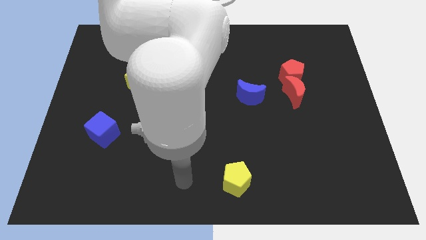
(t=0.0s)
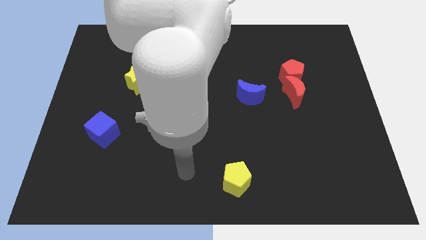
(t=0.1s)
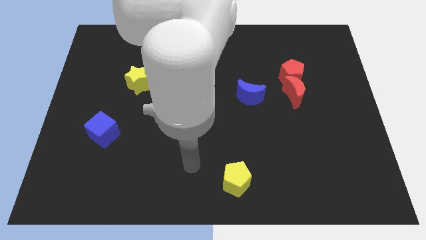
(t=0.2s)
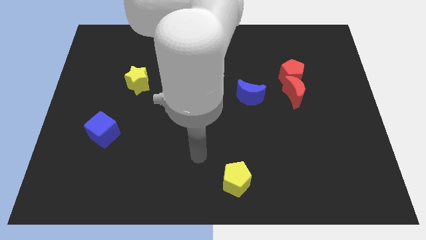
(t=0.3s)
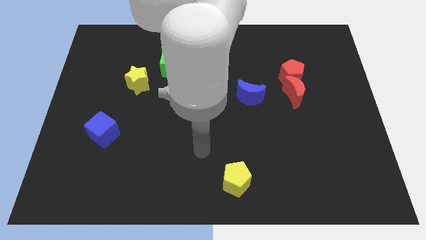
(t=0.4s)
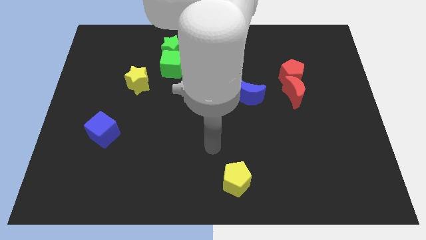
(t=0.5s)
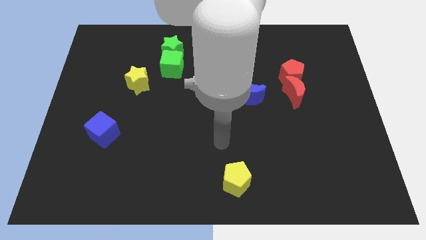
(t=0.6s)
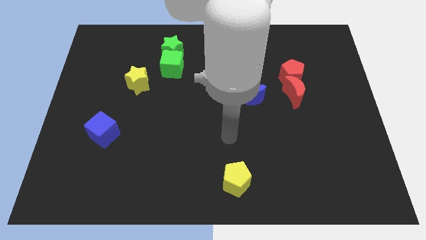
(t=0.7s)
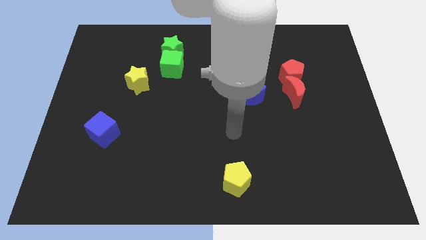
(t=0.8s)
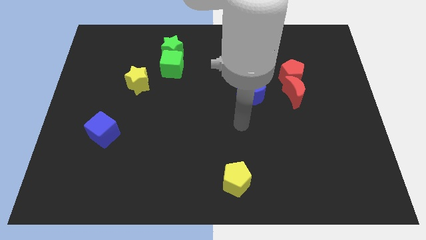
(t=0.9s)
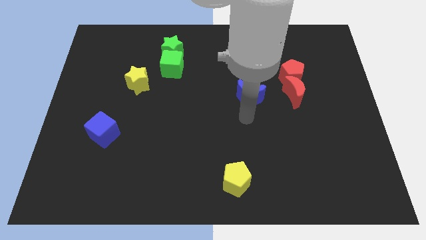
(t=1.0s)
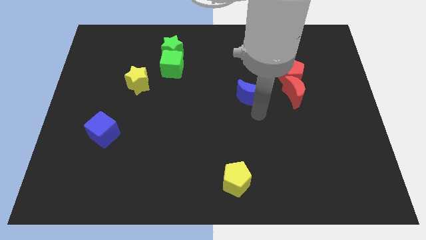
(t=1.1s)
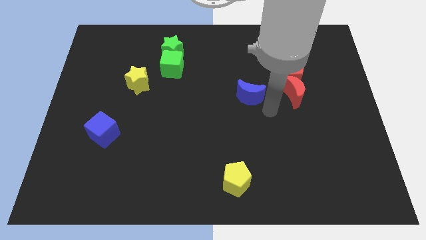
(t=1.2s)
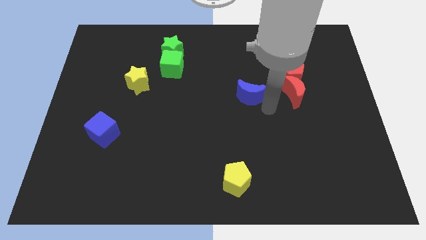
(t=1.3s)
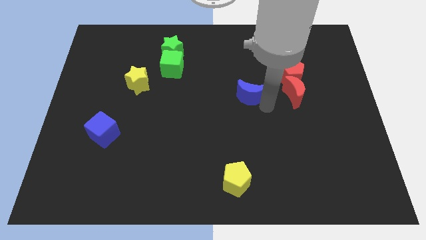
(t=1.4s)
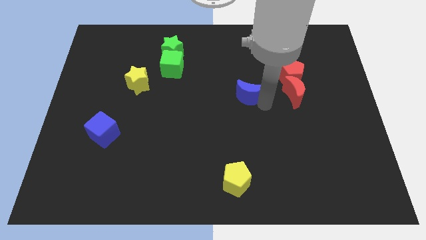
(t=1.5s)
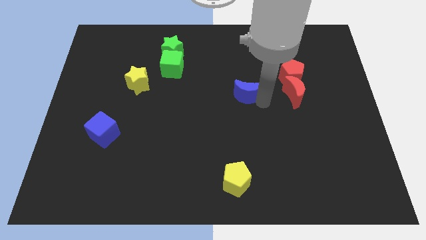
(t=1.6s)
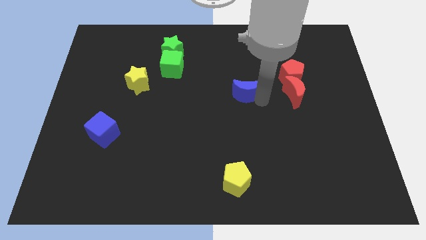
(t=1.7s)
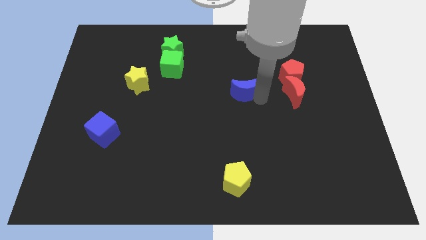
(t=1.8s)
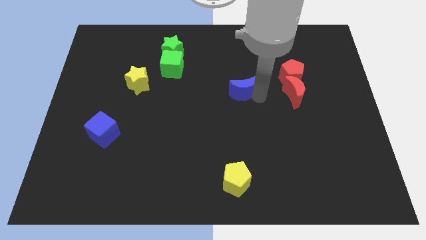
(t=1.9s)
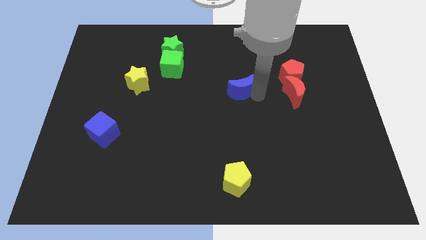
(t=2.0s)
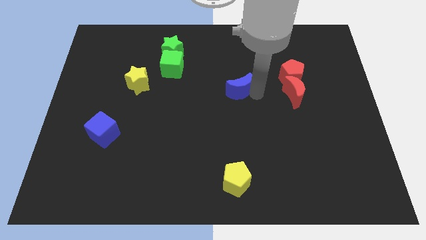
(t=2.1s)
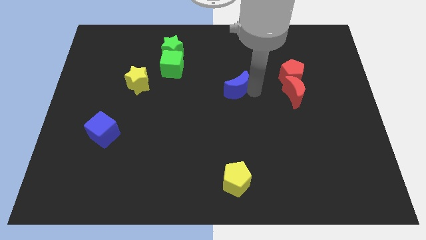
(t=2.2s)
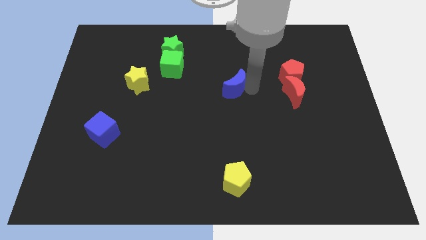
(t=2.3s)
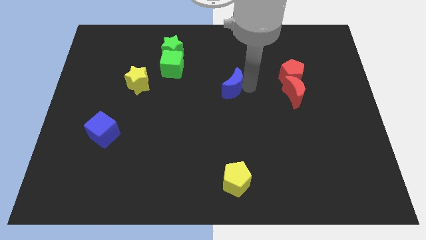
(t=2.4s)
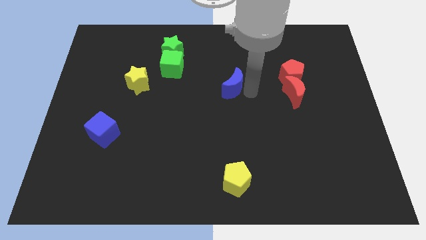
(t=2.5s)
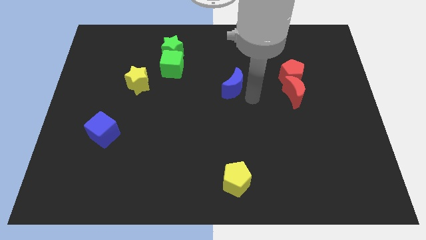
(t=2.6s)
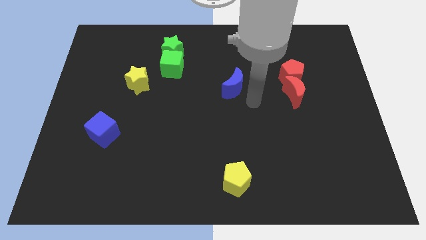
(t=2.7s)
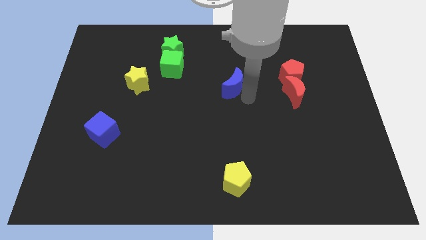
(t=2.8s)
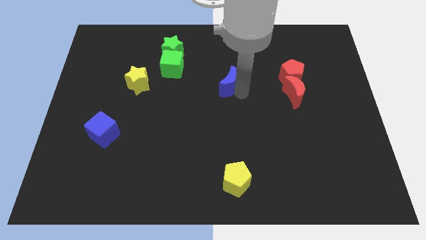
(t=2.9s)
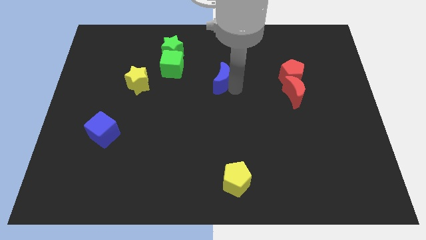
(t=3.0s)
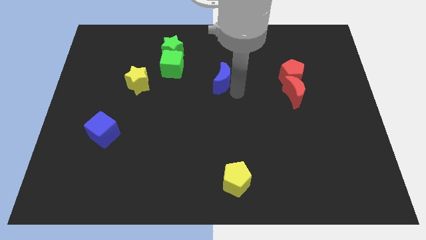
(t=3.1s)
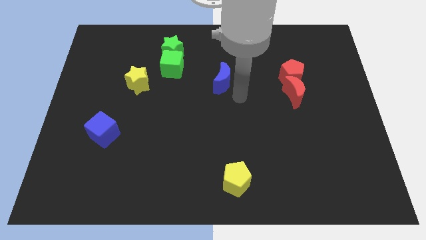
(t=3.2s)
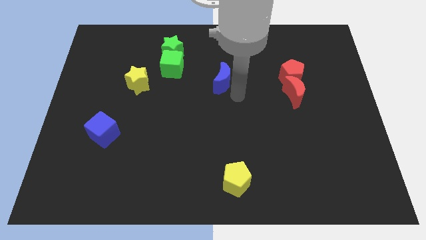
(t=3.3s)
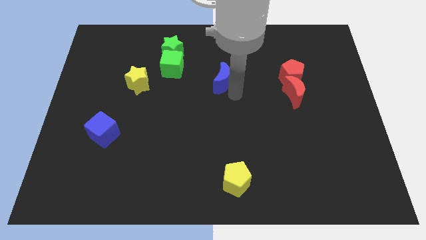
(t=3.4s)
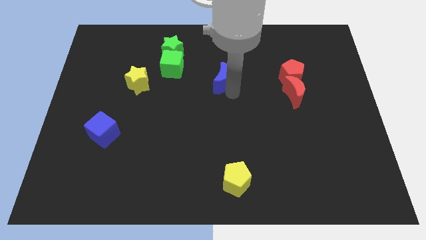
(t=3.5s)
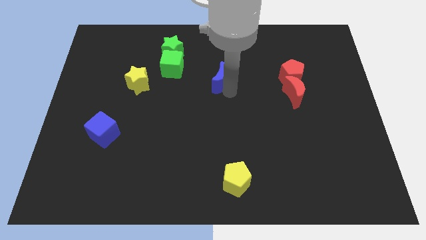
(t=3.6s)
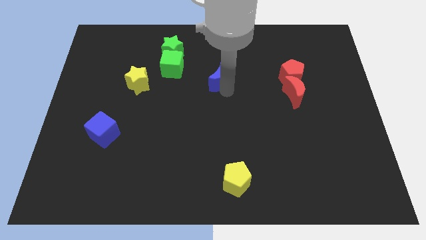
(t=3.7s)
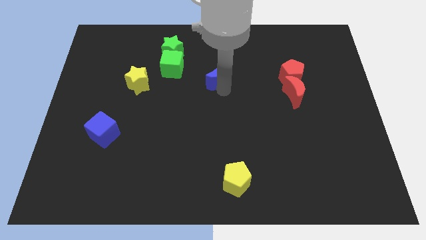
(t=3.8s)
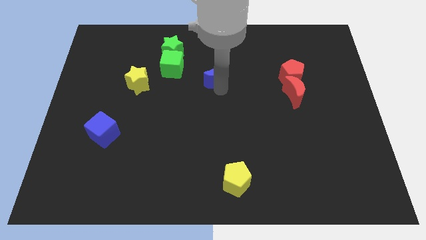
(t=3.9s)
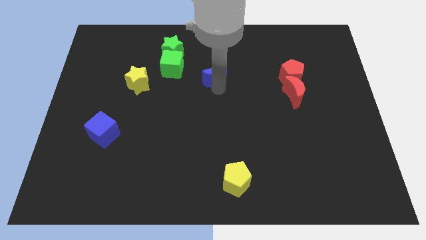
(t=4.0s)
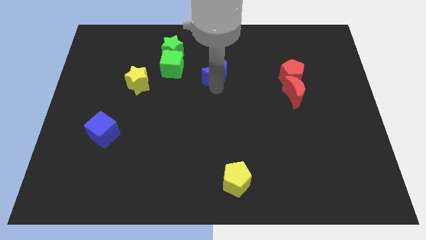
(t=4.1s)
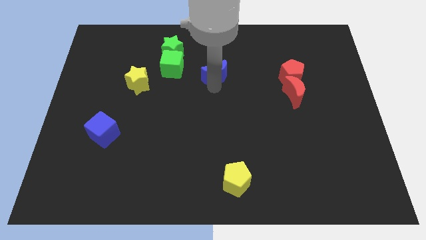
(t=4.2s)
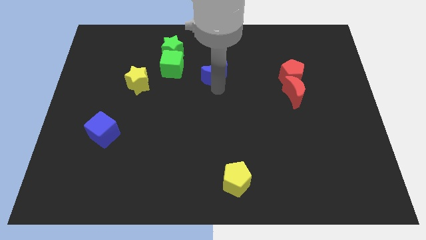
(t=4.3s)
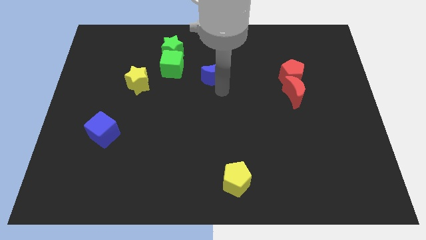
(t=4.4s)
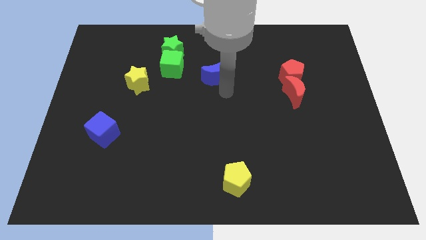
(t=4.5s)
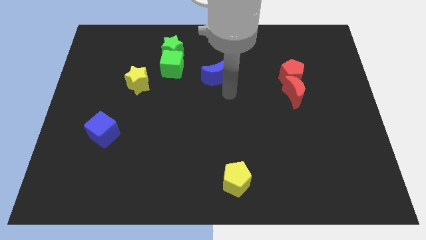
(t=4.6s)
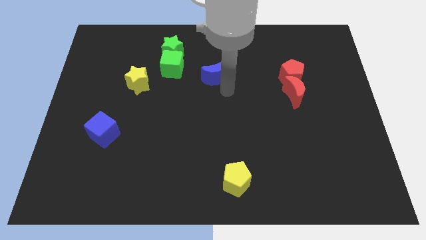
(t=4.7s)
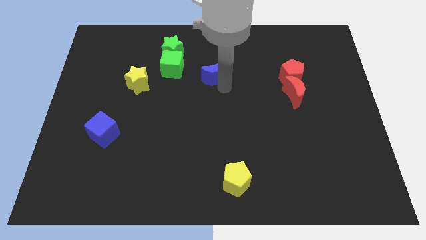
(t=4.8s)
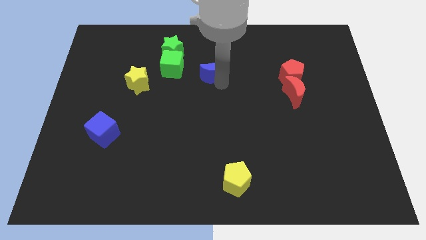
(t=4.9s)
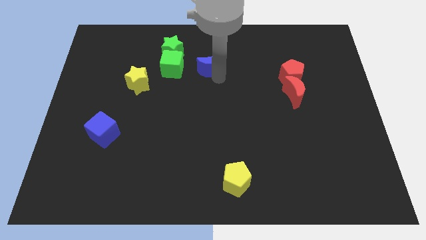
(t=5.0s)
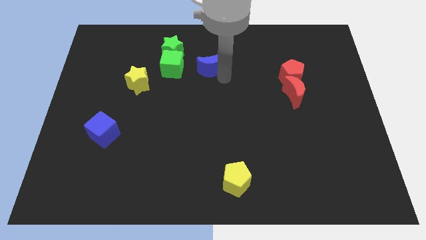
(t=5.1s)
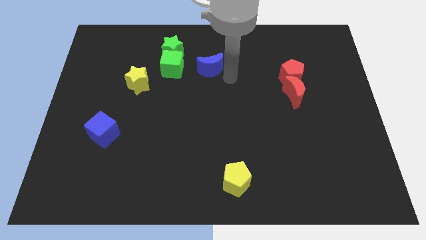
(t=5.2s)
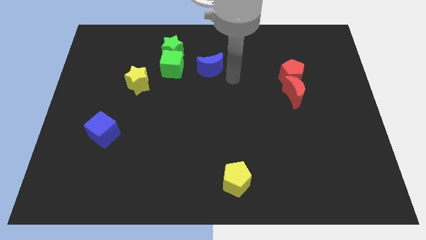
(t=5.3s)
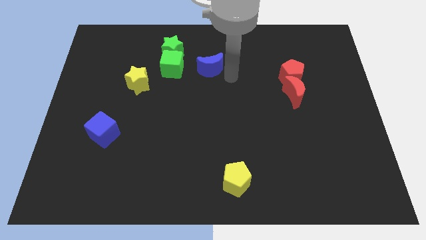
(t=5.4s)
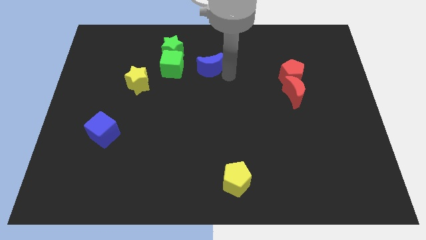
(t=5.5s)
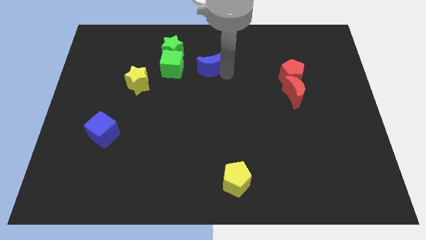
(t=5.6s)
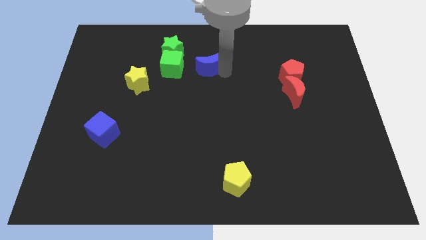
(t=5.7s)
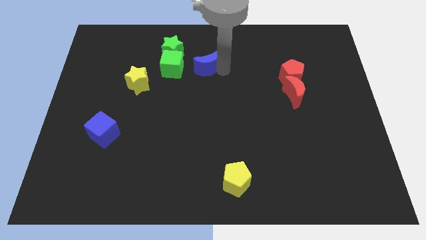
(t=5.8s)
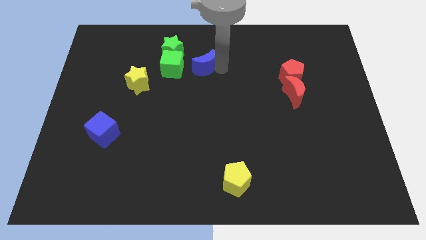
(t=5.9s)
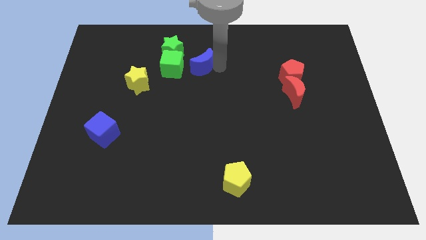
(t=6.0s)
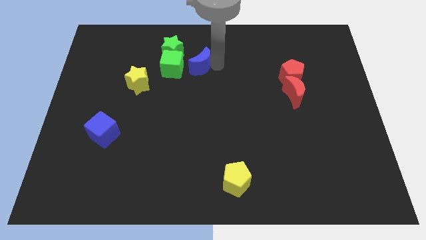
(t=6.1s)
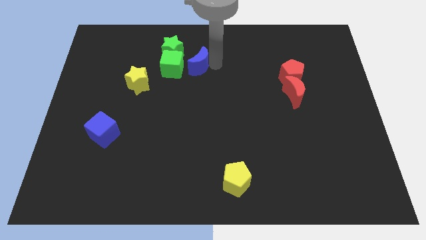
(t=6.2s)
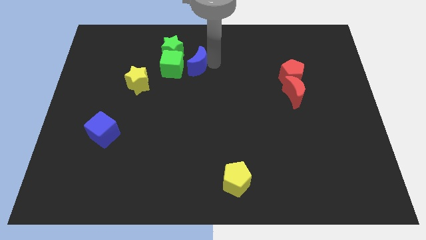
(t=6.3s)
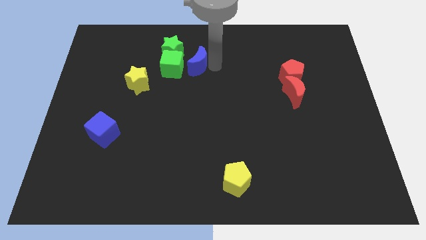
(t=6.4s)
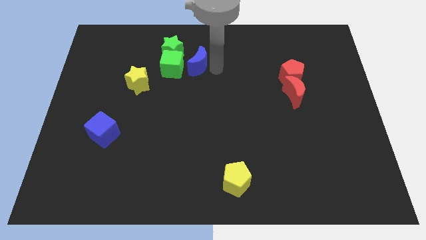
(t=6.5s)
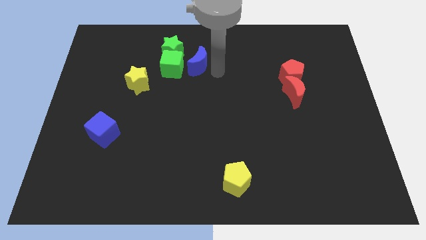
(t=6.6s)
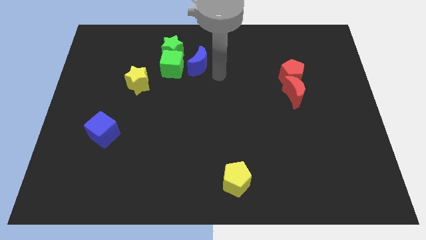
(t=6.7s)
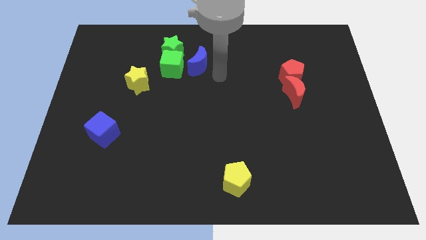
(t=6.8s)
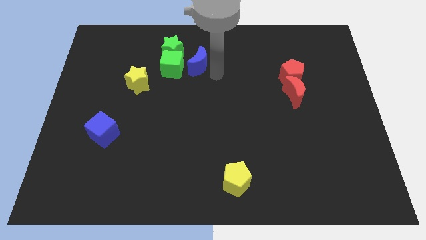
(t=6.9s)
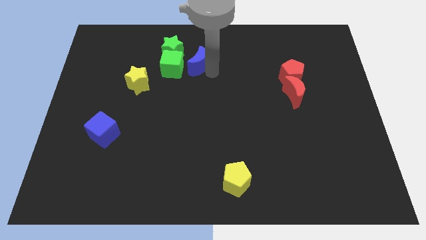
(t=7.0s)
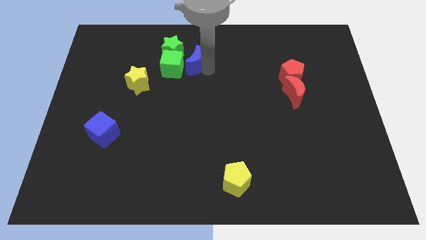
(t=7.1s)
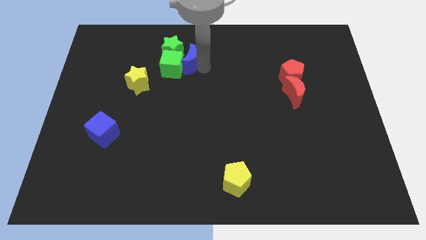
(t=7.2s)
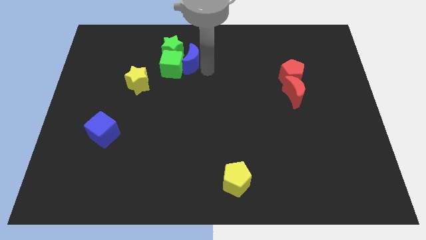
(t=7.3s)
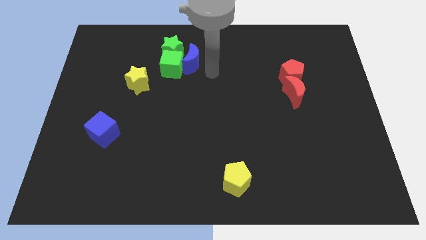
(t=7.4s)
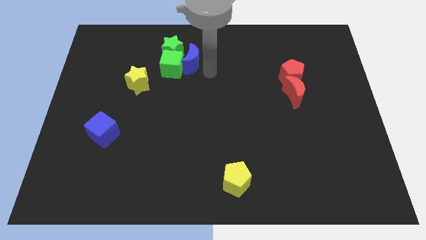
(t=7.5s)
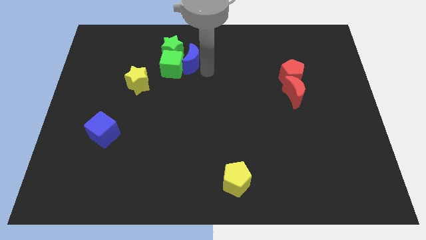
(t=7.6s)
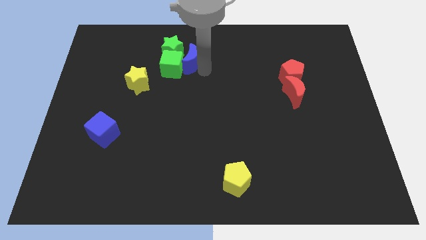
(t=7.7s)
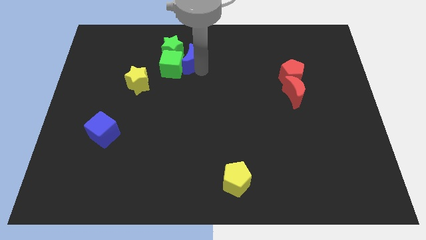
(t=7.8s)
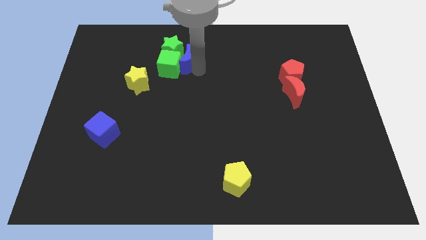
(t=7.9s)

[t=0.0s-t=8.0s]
slide the blue moon to the green star
